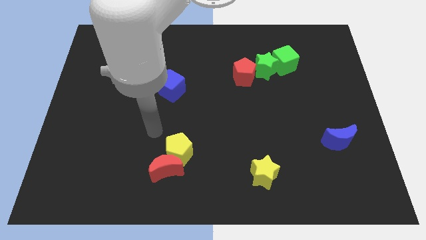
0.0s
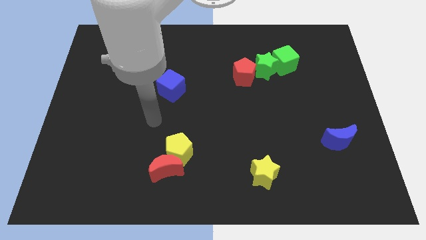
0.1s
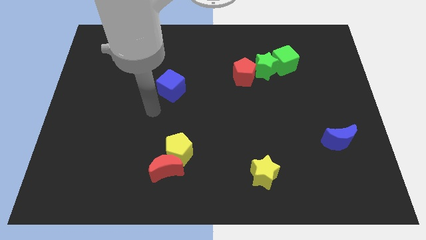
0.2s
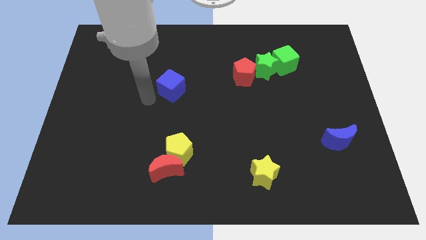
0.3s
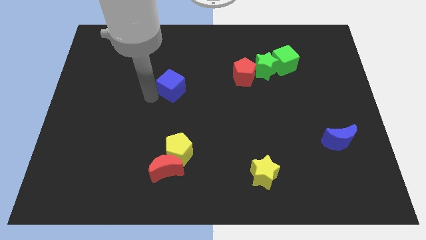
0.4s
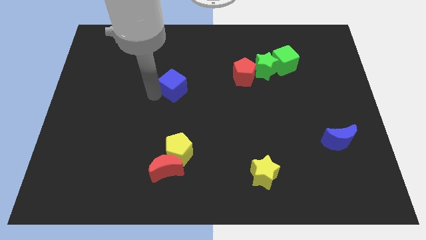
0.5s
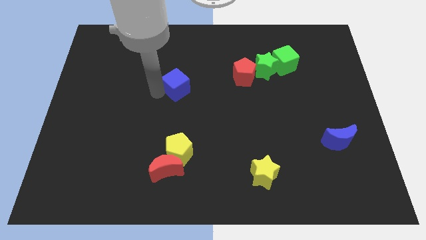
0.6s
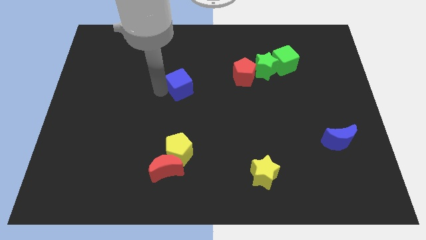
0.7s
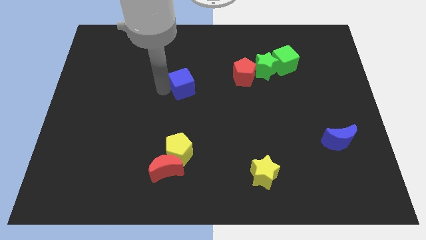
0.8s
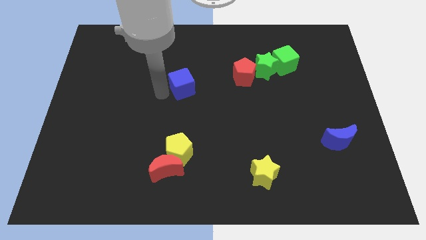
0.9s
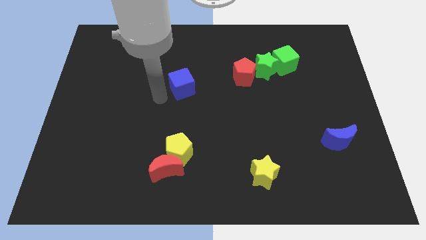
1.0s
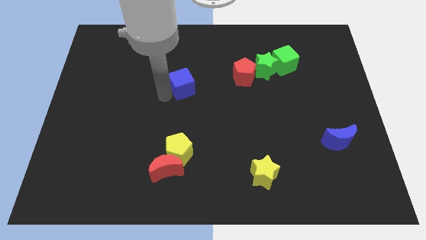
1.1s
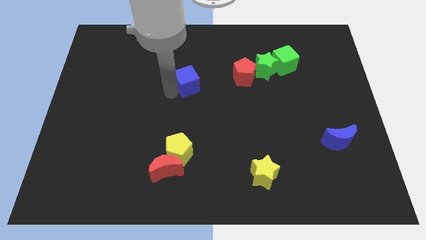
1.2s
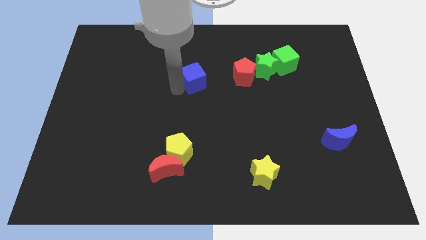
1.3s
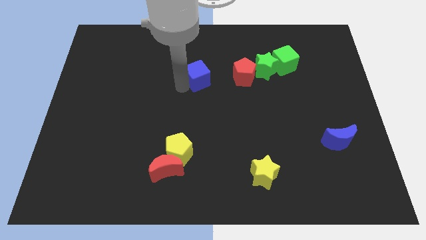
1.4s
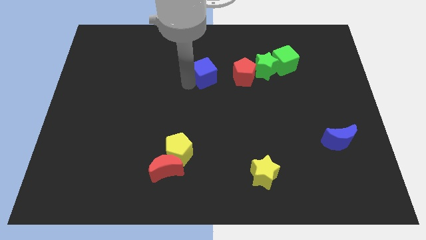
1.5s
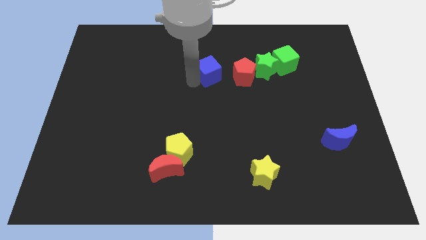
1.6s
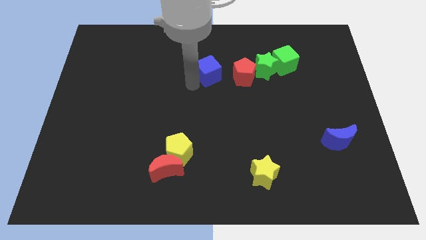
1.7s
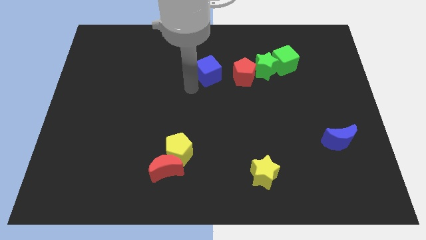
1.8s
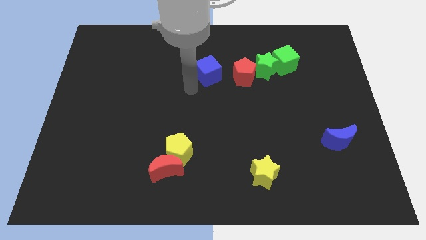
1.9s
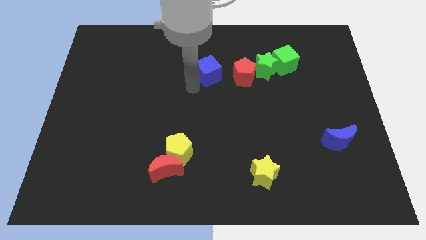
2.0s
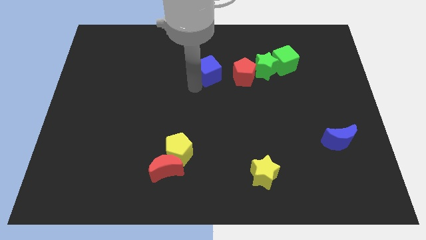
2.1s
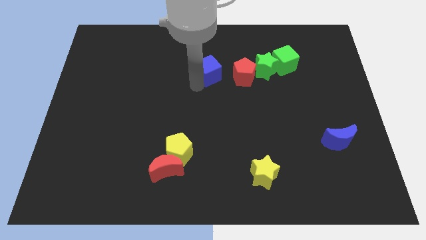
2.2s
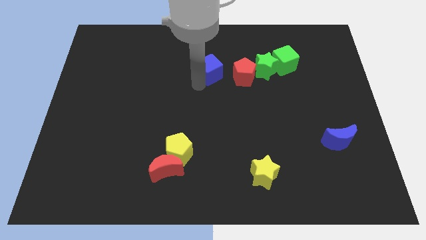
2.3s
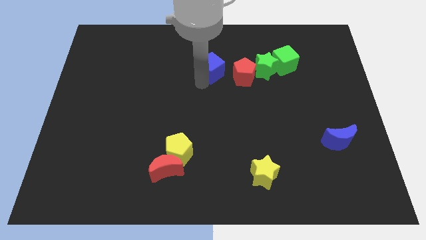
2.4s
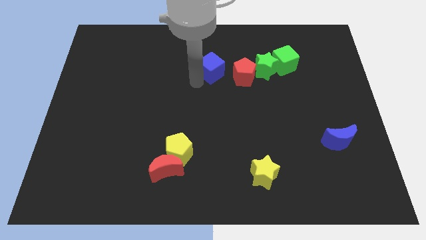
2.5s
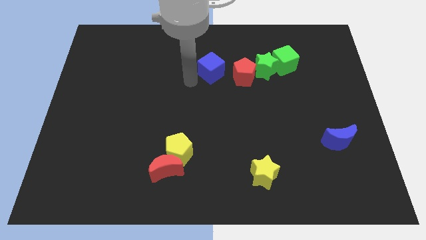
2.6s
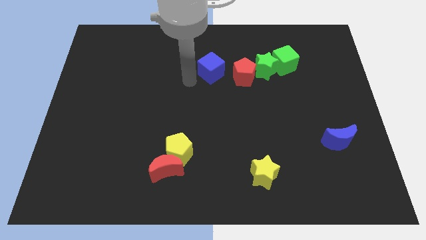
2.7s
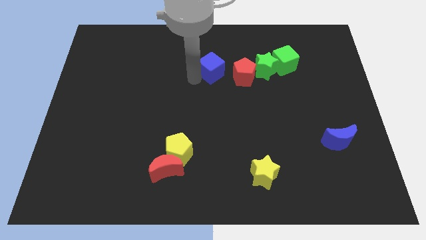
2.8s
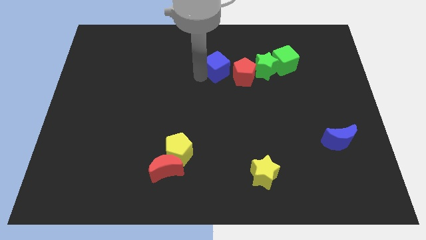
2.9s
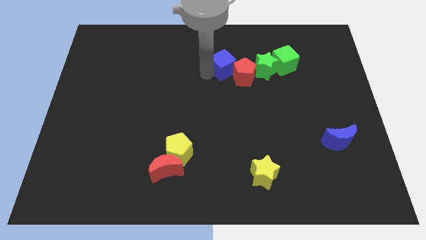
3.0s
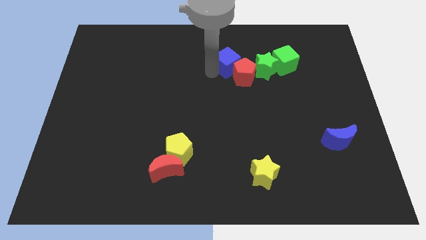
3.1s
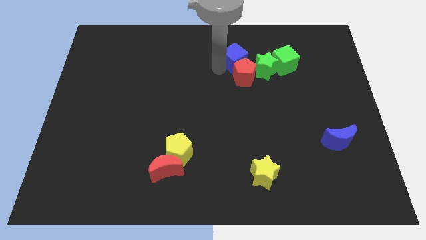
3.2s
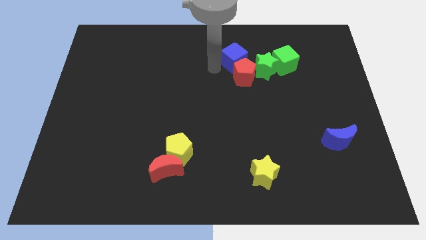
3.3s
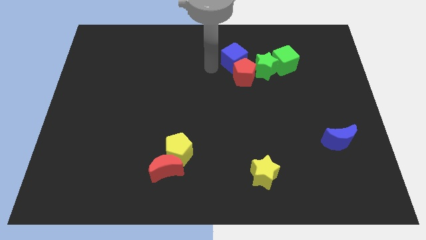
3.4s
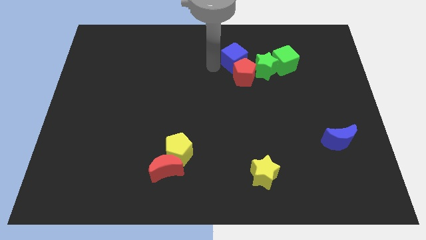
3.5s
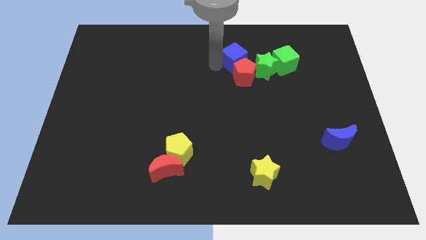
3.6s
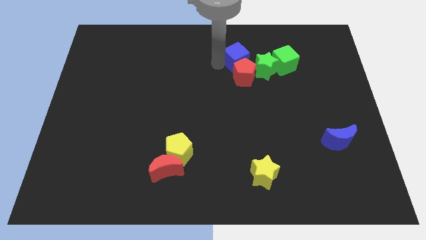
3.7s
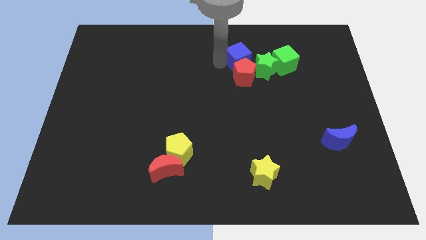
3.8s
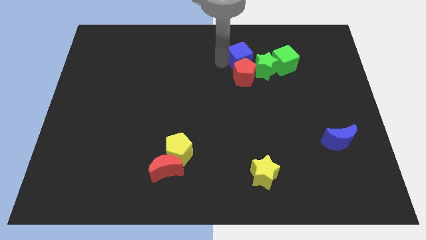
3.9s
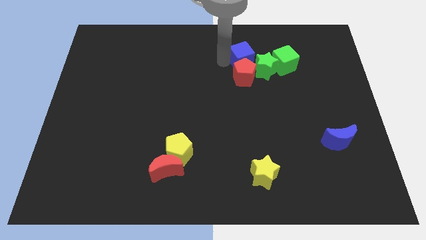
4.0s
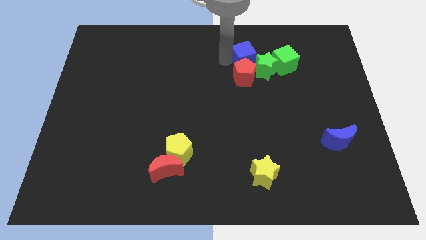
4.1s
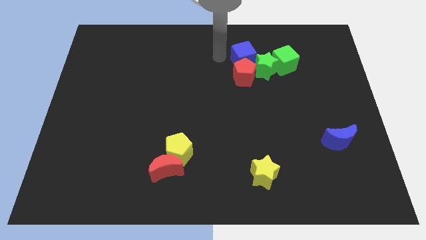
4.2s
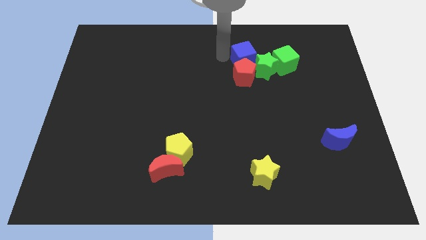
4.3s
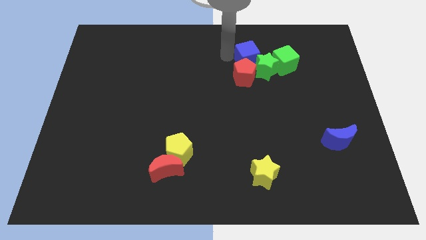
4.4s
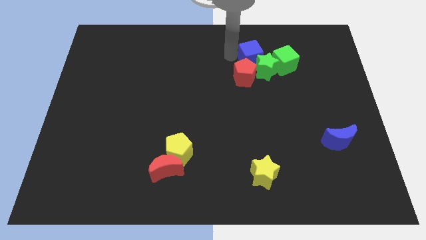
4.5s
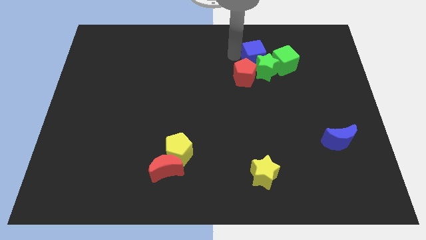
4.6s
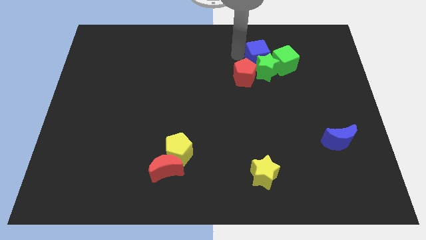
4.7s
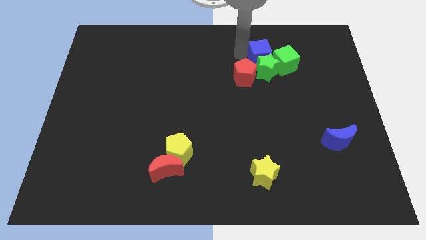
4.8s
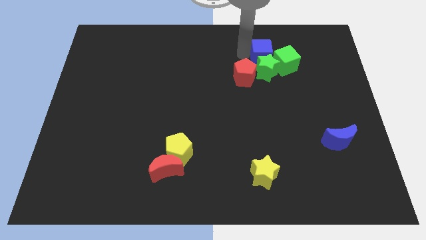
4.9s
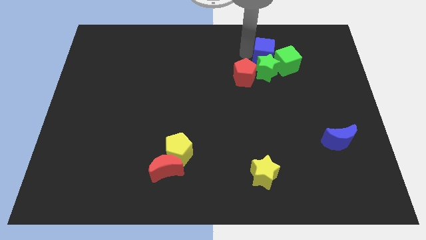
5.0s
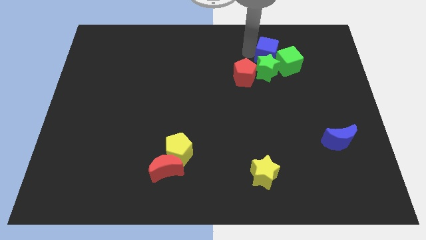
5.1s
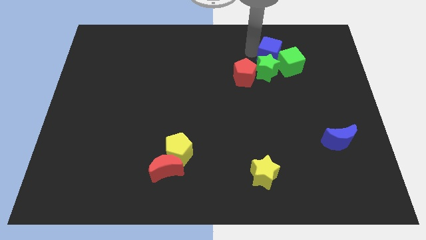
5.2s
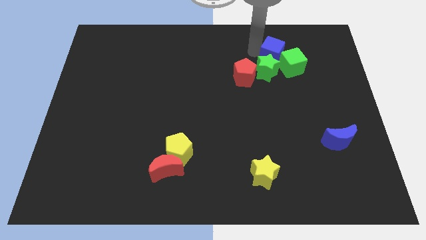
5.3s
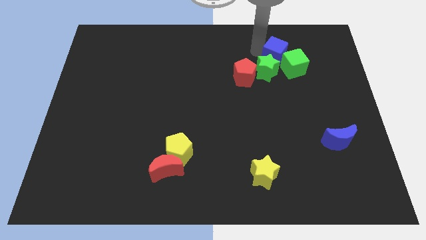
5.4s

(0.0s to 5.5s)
move the blue cube close to the green cube

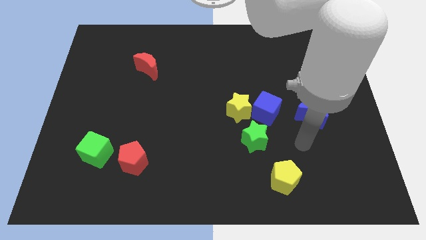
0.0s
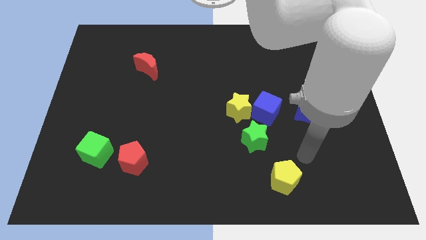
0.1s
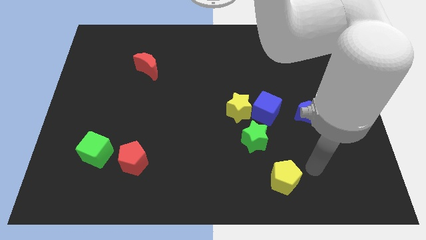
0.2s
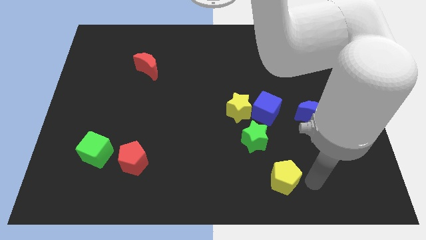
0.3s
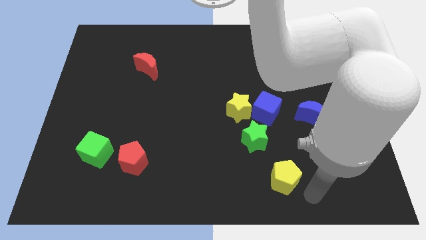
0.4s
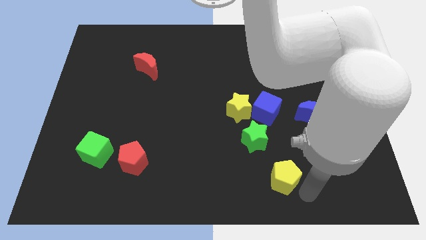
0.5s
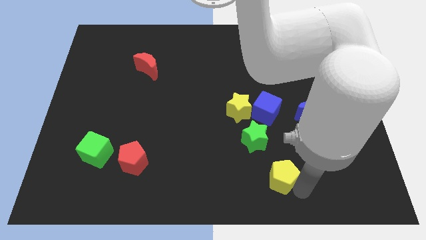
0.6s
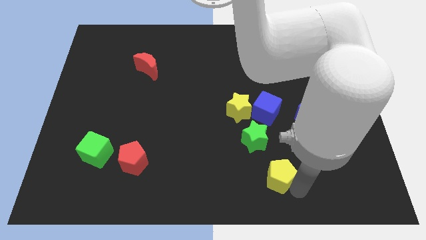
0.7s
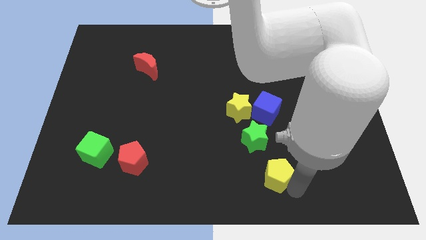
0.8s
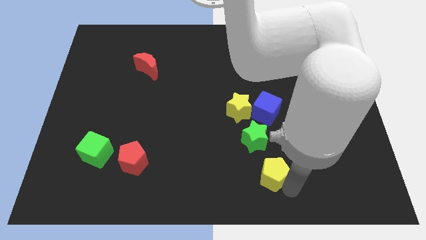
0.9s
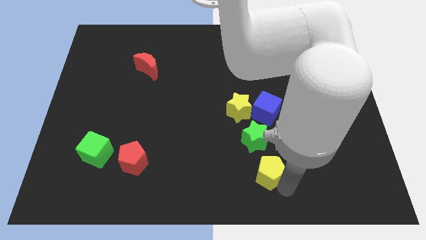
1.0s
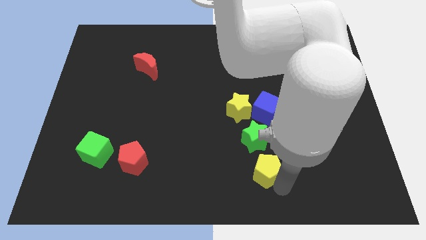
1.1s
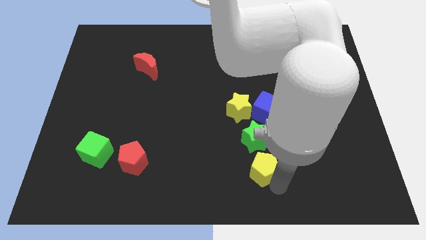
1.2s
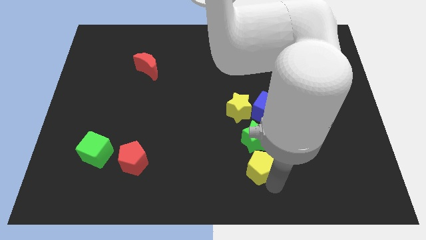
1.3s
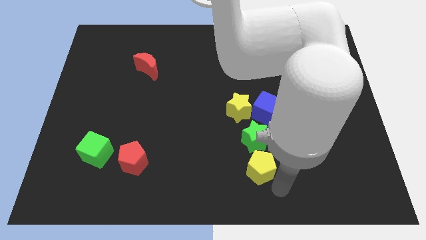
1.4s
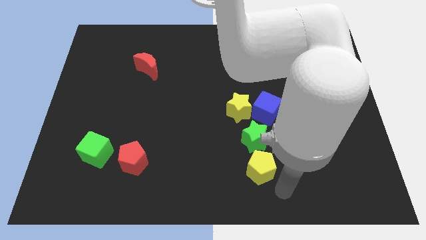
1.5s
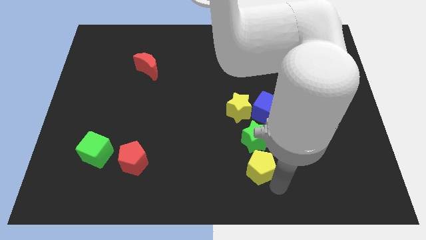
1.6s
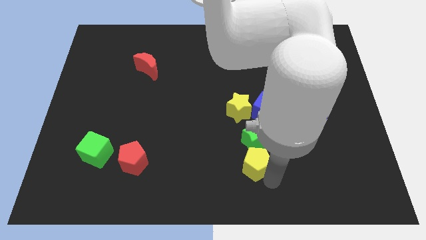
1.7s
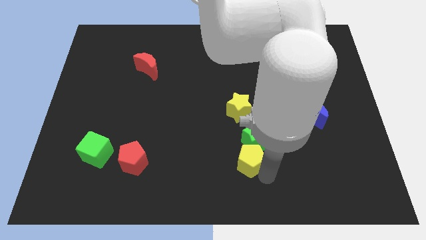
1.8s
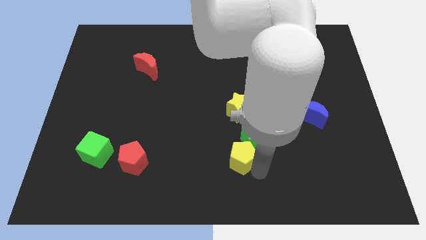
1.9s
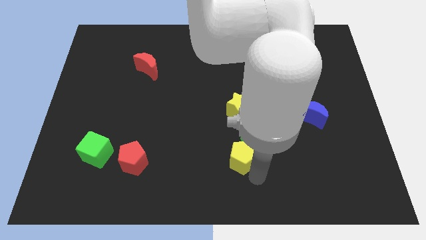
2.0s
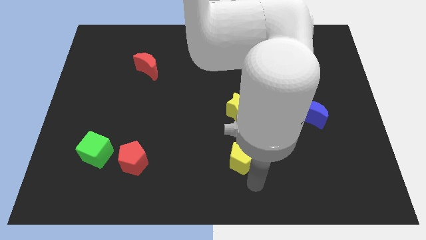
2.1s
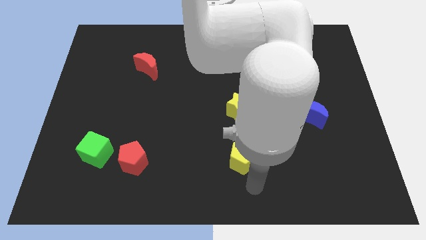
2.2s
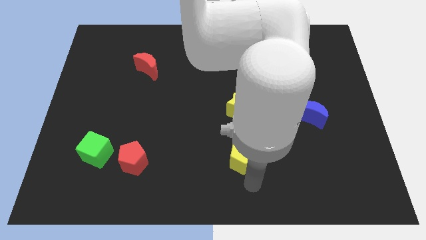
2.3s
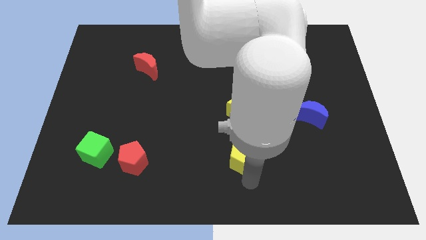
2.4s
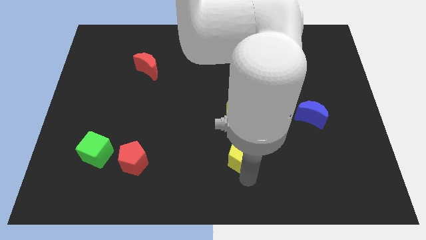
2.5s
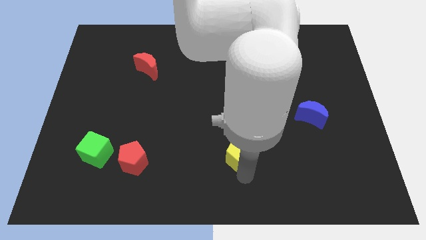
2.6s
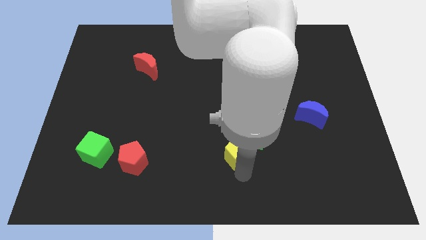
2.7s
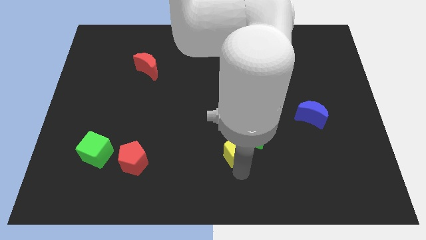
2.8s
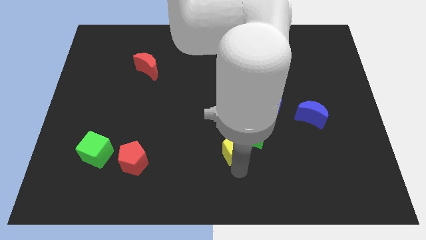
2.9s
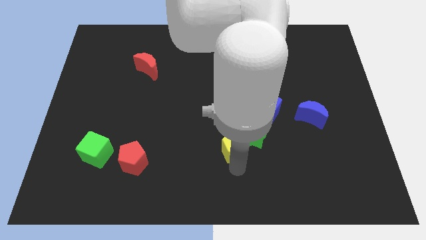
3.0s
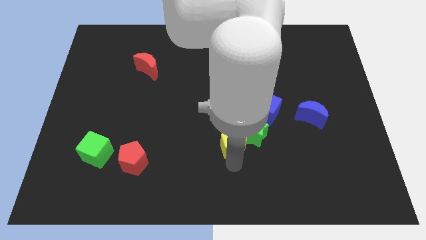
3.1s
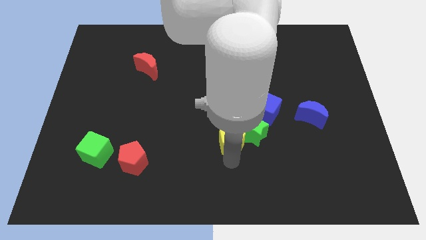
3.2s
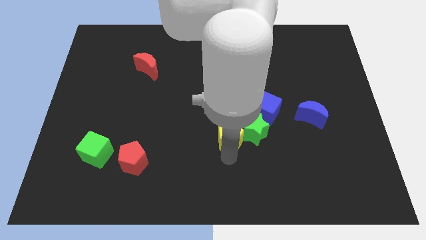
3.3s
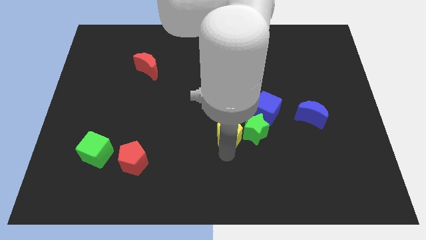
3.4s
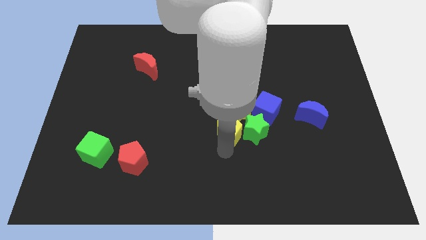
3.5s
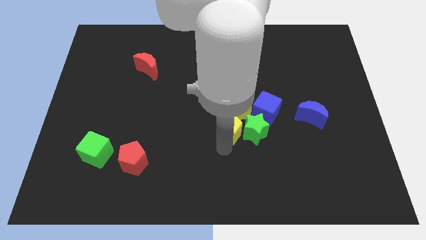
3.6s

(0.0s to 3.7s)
push the yellow pentagon next to the yellow star
